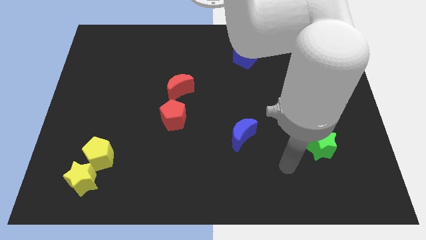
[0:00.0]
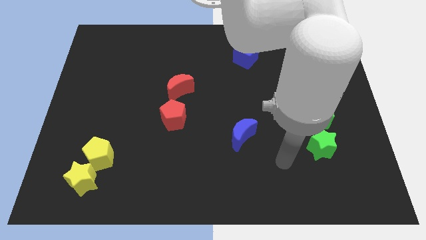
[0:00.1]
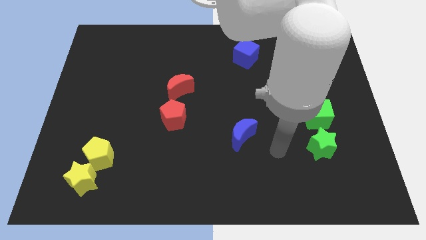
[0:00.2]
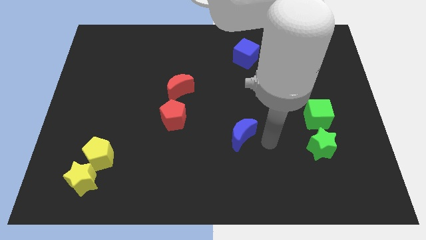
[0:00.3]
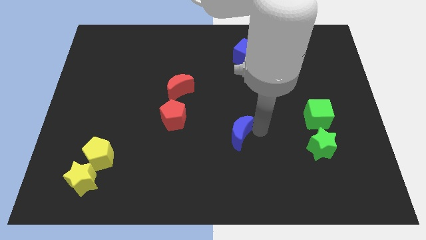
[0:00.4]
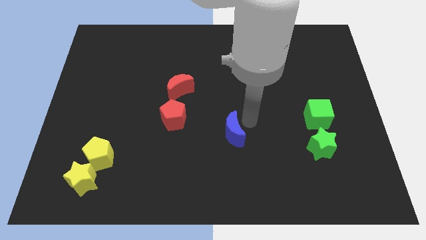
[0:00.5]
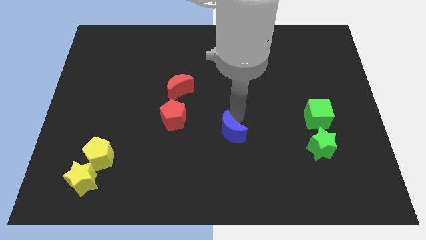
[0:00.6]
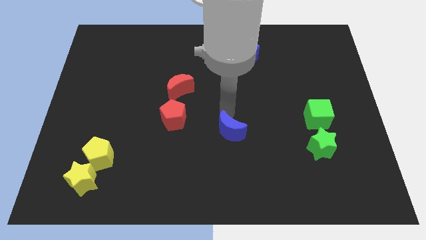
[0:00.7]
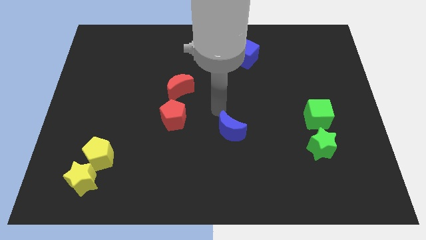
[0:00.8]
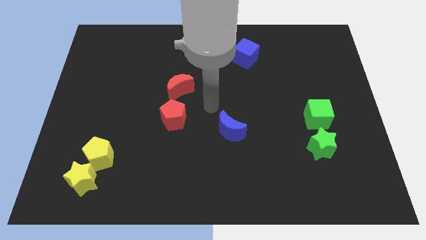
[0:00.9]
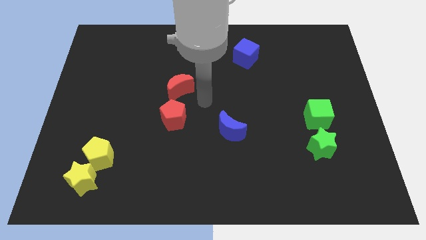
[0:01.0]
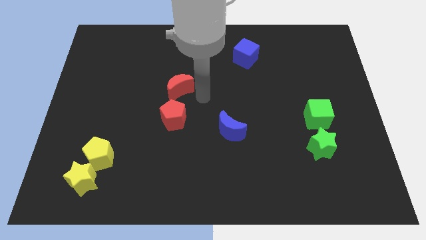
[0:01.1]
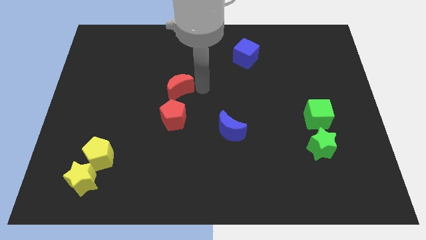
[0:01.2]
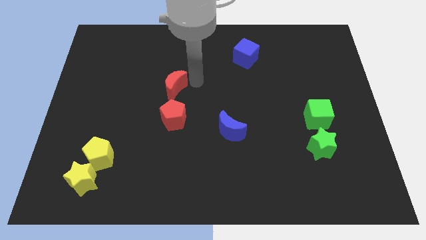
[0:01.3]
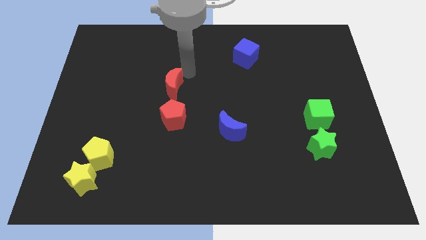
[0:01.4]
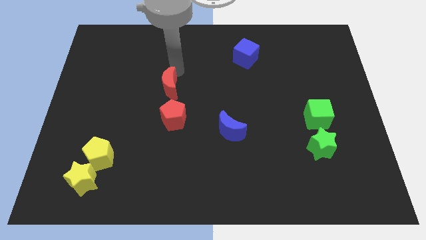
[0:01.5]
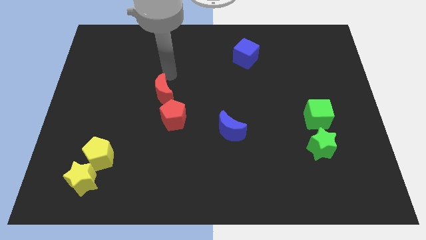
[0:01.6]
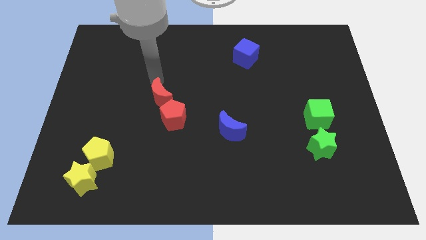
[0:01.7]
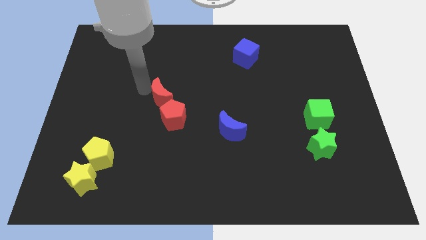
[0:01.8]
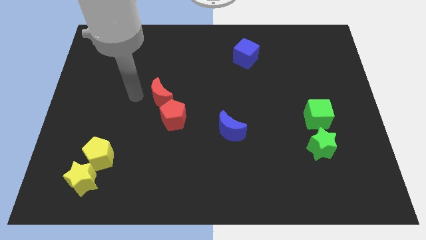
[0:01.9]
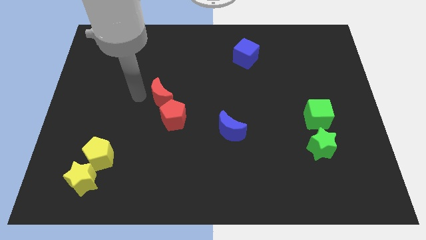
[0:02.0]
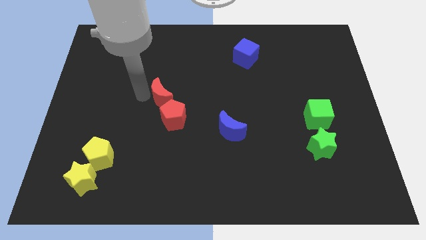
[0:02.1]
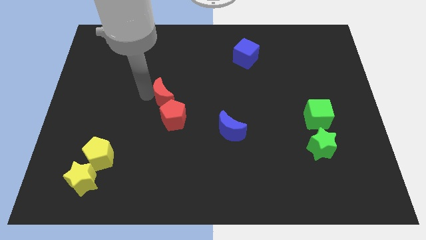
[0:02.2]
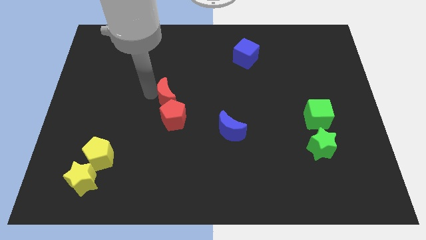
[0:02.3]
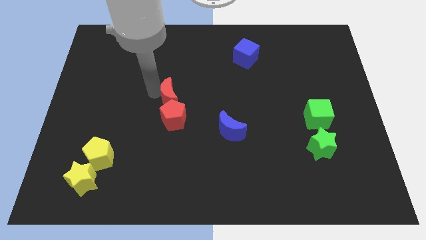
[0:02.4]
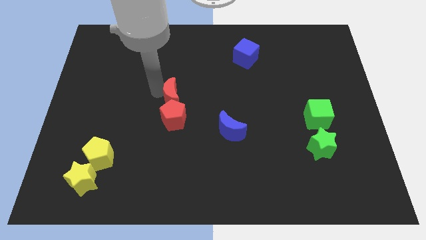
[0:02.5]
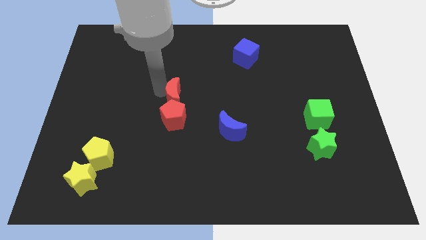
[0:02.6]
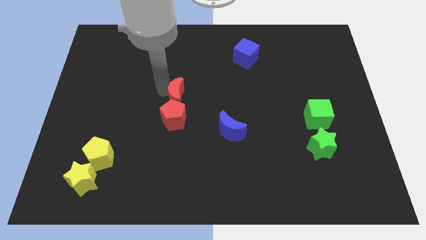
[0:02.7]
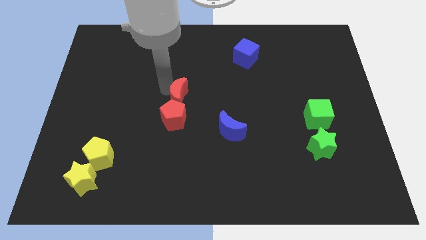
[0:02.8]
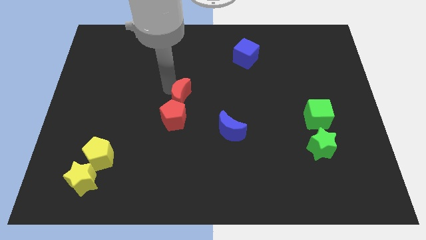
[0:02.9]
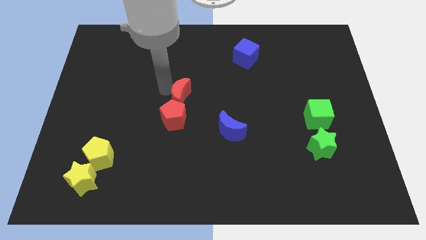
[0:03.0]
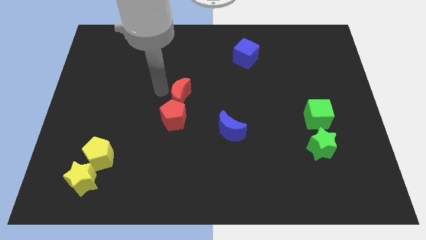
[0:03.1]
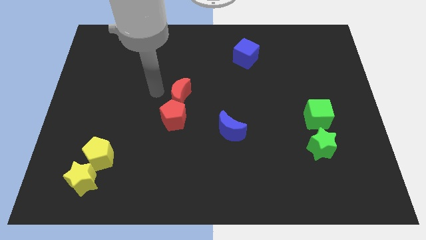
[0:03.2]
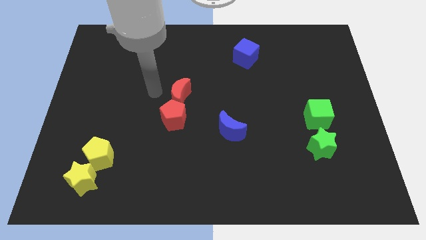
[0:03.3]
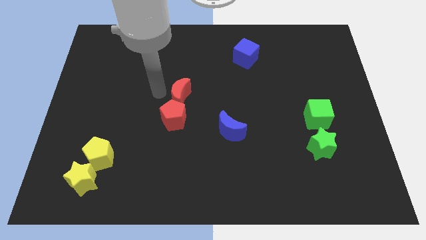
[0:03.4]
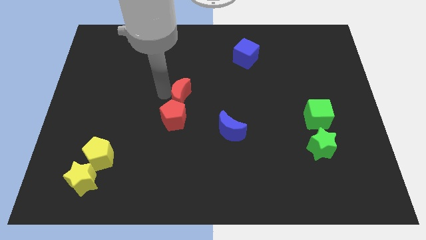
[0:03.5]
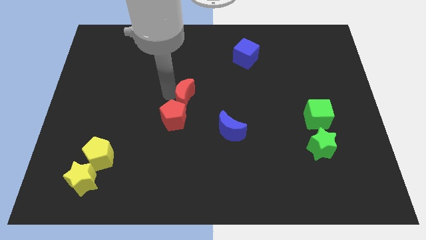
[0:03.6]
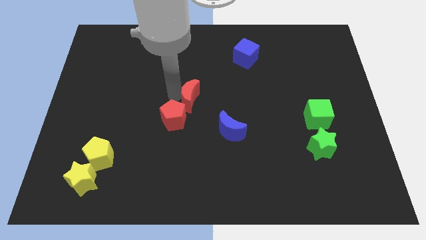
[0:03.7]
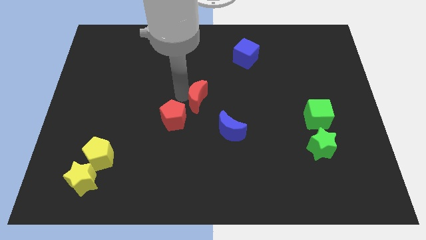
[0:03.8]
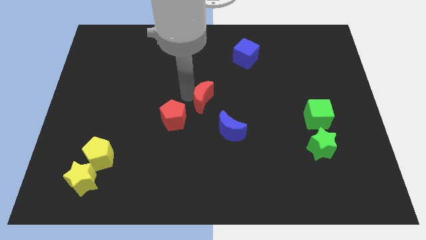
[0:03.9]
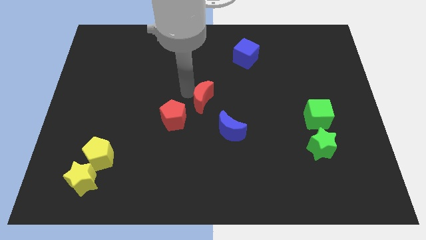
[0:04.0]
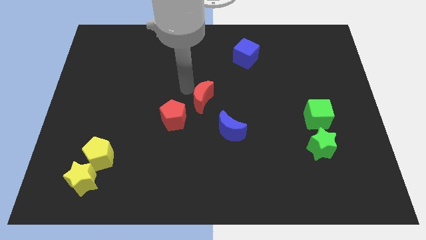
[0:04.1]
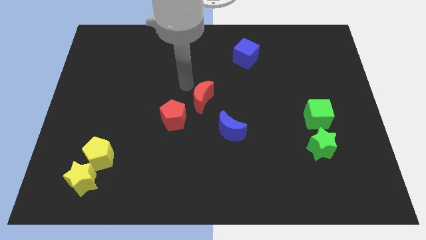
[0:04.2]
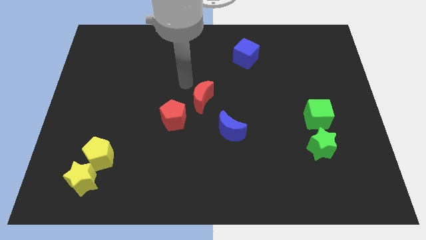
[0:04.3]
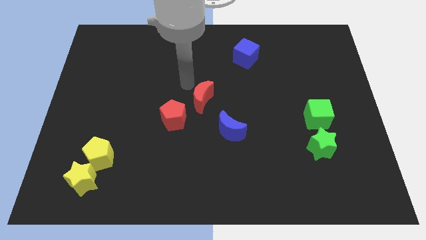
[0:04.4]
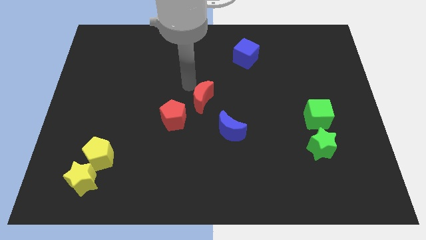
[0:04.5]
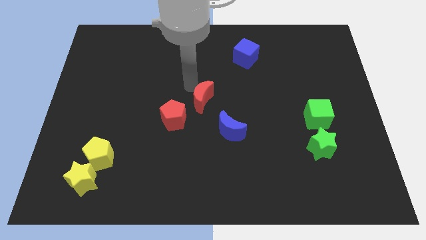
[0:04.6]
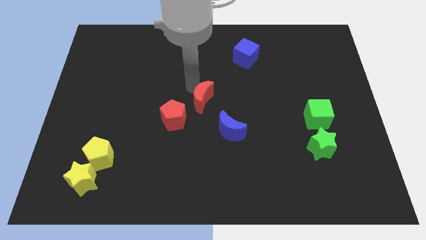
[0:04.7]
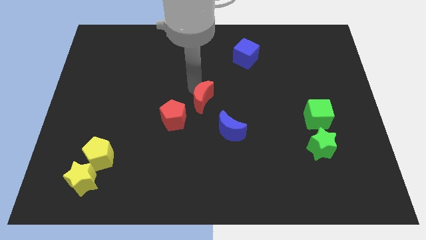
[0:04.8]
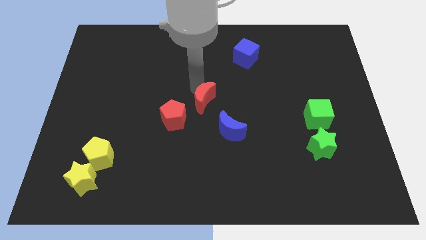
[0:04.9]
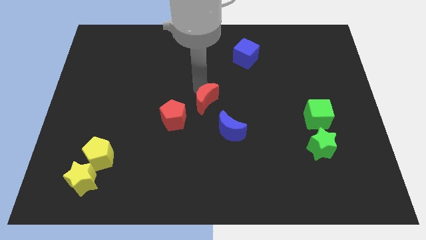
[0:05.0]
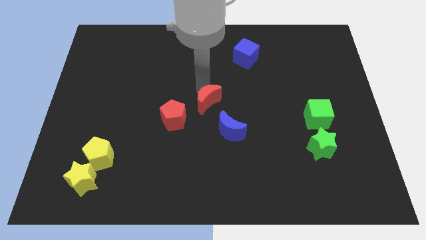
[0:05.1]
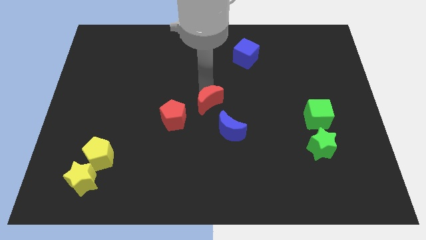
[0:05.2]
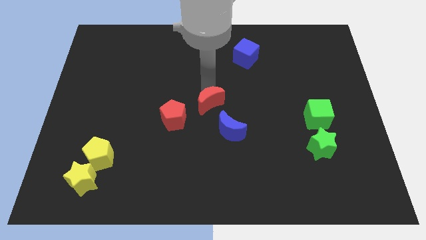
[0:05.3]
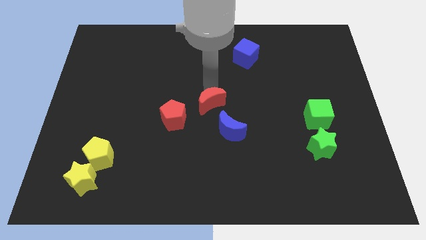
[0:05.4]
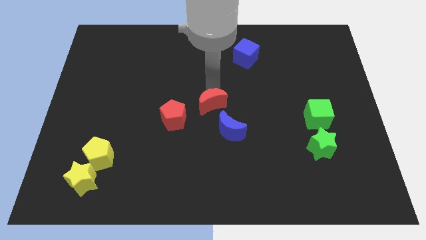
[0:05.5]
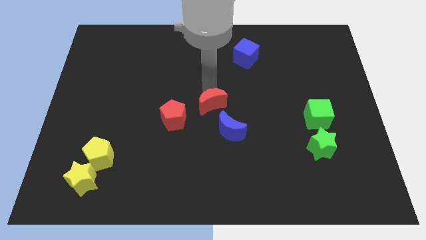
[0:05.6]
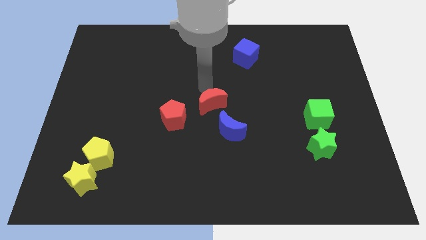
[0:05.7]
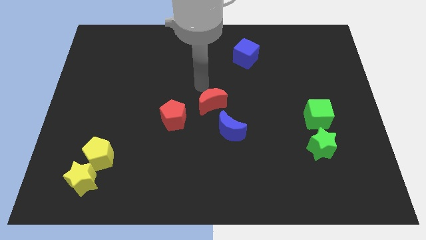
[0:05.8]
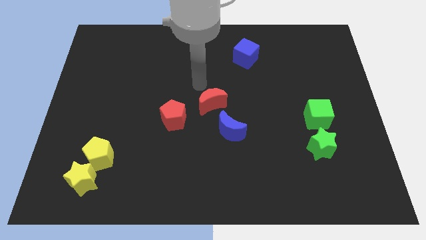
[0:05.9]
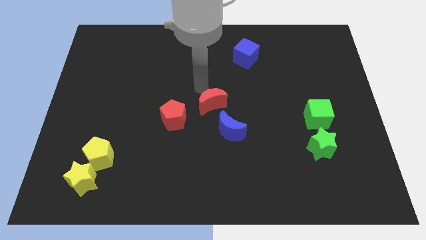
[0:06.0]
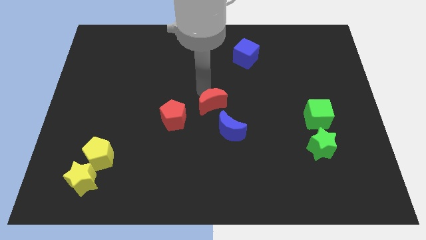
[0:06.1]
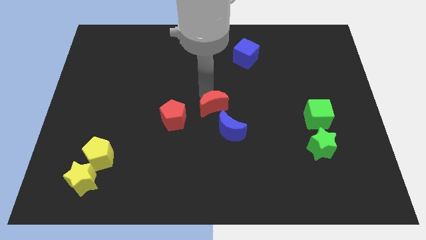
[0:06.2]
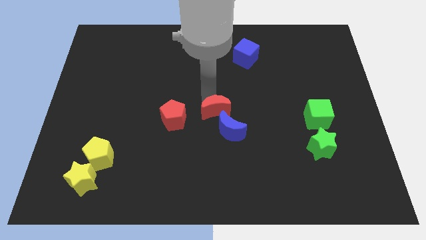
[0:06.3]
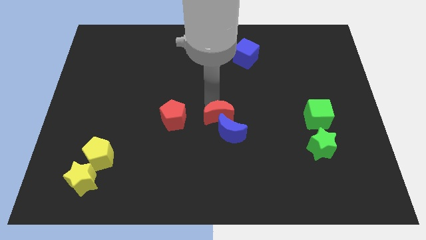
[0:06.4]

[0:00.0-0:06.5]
slide the red moon towards the blue moon

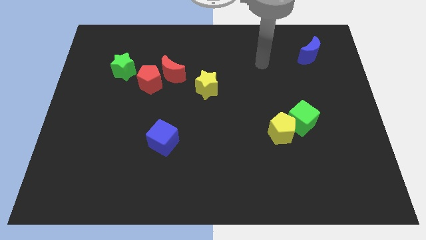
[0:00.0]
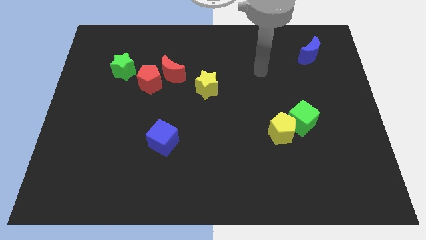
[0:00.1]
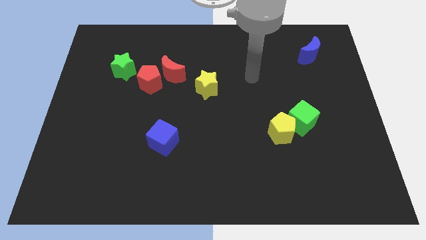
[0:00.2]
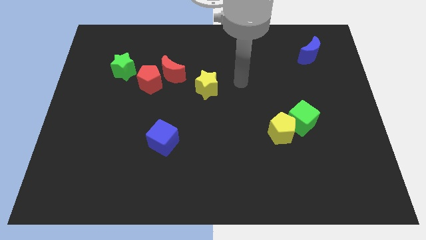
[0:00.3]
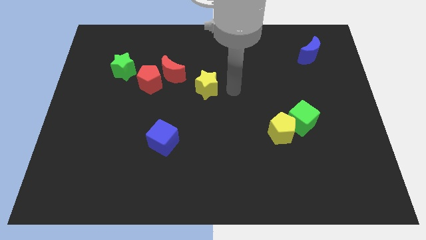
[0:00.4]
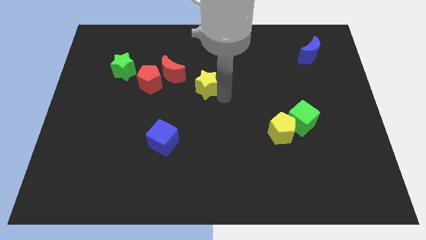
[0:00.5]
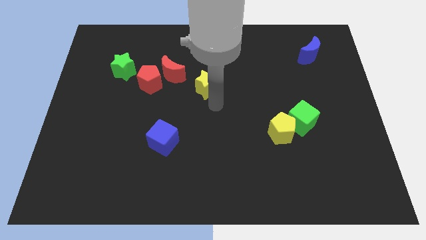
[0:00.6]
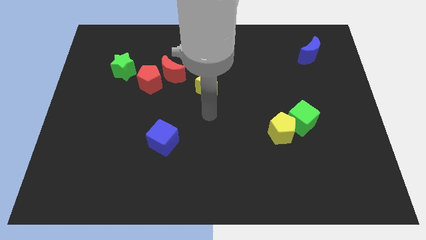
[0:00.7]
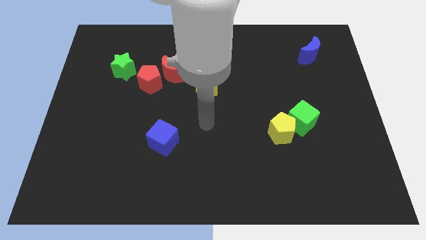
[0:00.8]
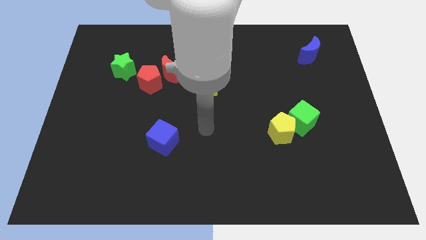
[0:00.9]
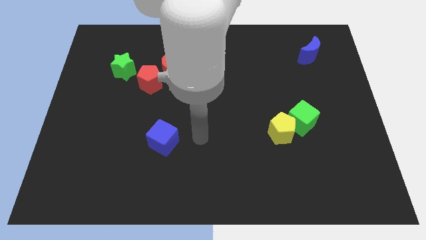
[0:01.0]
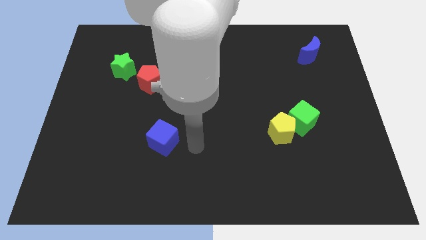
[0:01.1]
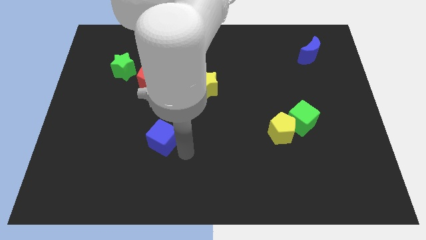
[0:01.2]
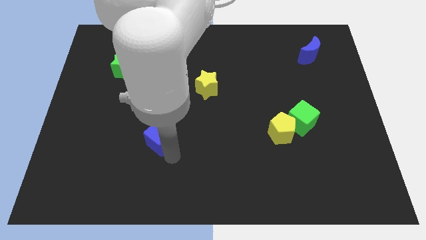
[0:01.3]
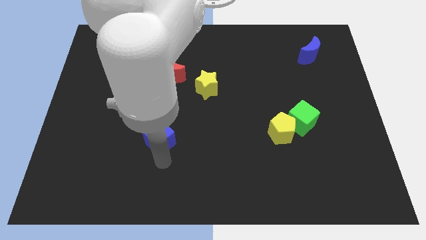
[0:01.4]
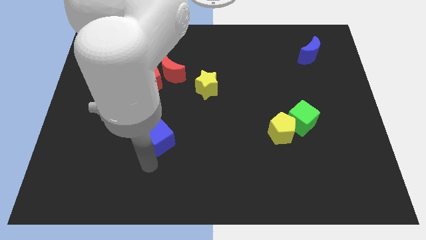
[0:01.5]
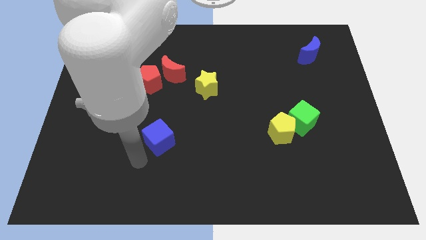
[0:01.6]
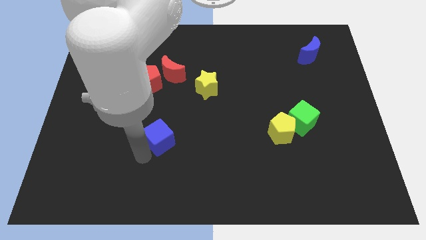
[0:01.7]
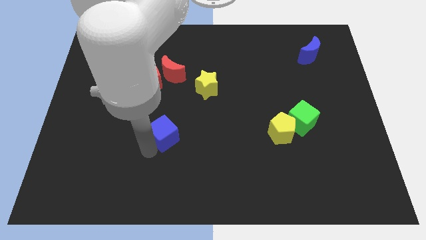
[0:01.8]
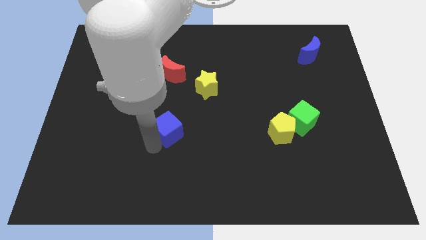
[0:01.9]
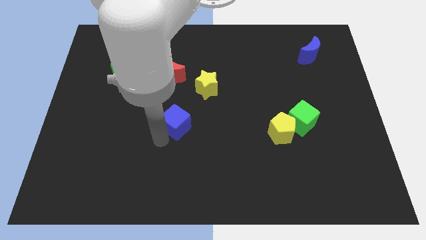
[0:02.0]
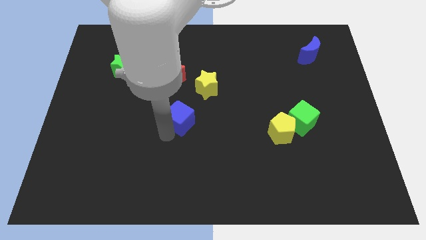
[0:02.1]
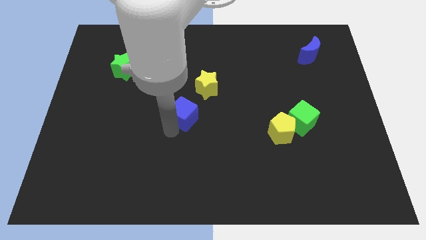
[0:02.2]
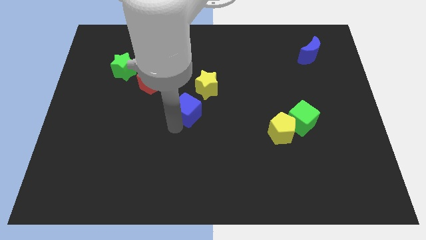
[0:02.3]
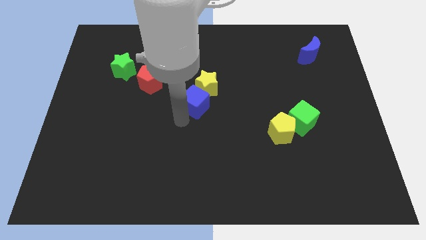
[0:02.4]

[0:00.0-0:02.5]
push the blue cube next to the yellow star
